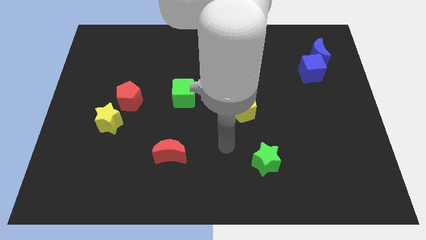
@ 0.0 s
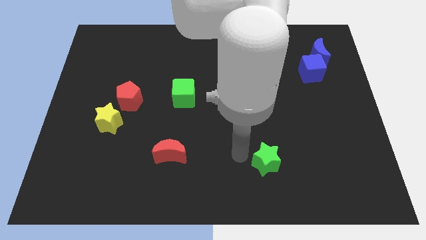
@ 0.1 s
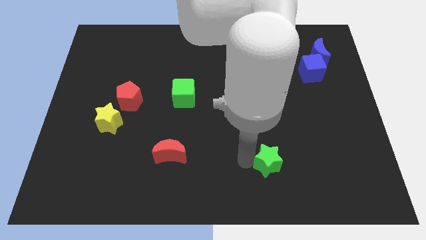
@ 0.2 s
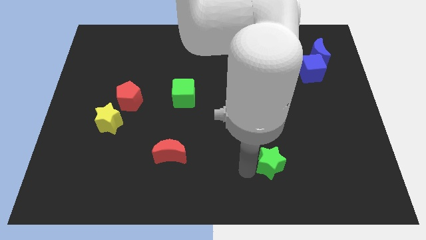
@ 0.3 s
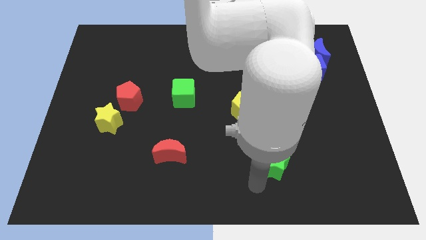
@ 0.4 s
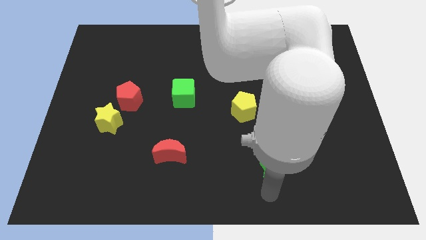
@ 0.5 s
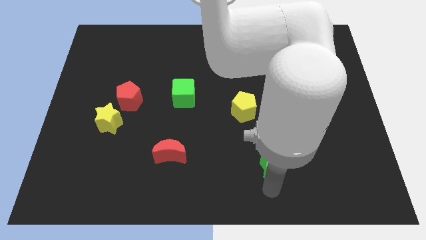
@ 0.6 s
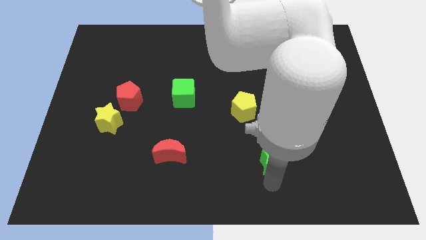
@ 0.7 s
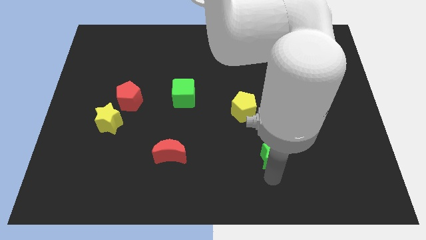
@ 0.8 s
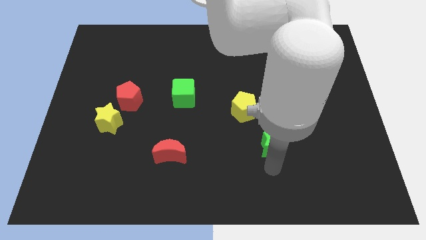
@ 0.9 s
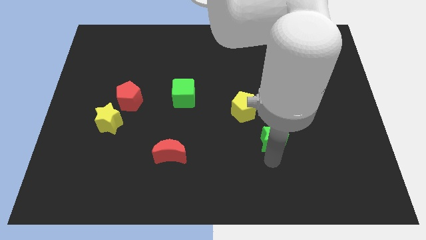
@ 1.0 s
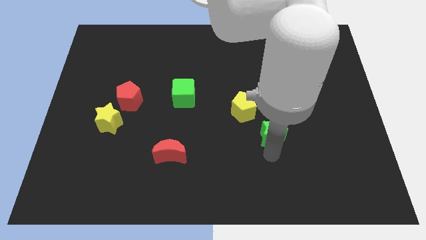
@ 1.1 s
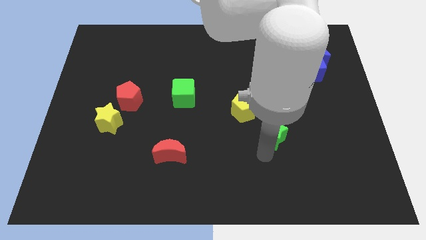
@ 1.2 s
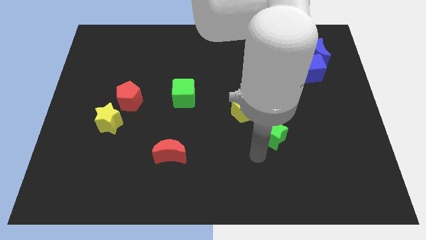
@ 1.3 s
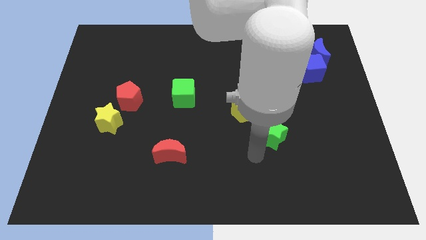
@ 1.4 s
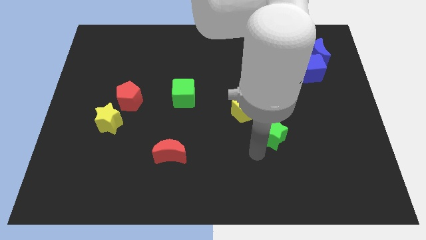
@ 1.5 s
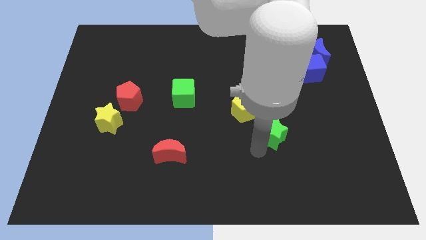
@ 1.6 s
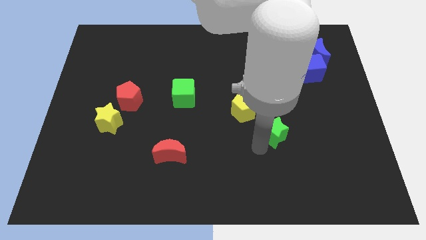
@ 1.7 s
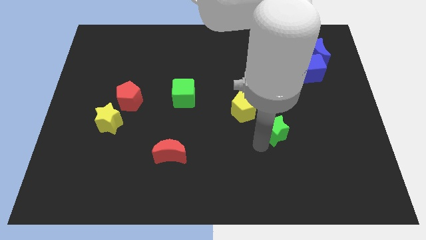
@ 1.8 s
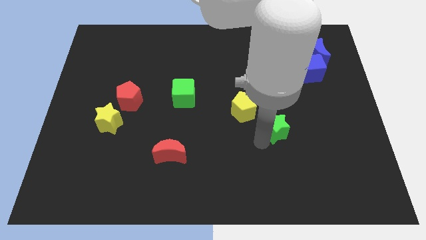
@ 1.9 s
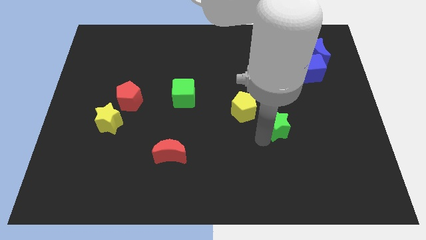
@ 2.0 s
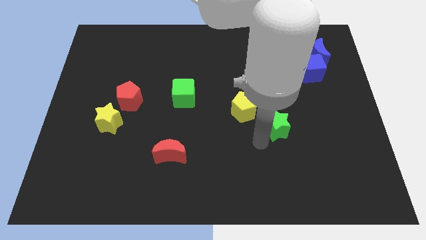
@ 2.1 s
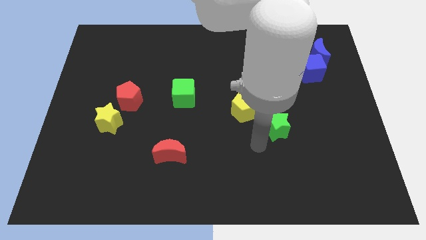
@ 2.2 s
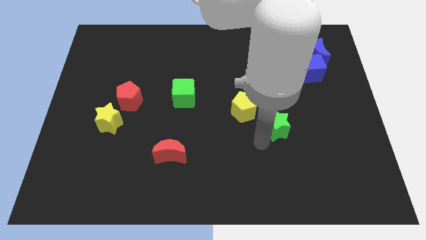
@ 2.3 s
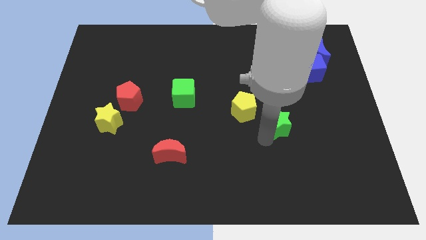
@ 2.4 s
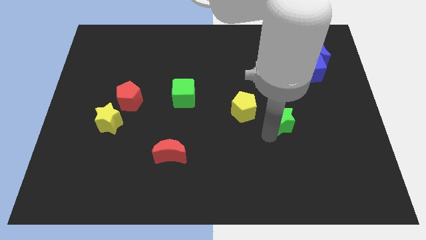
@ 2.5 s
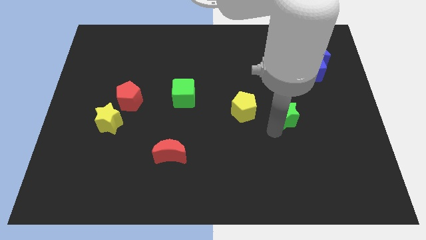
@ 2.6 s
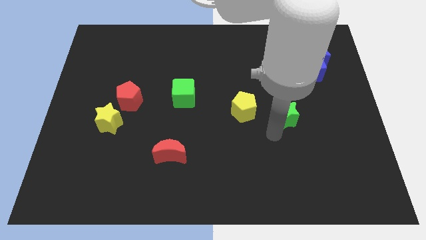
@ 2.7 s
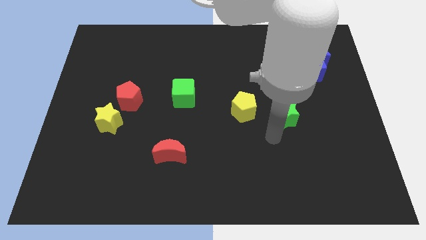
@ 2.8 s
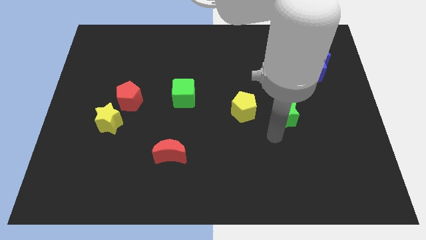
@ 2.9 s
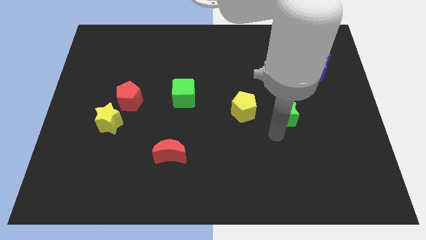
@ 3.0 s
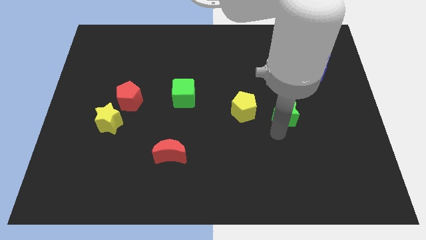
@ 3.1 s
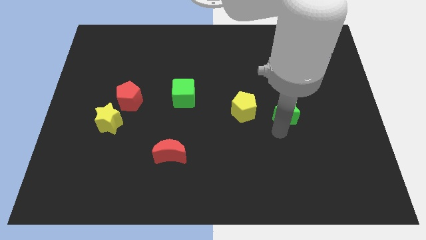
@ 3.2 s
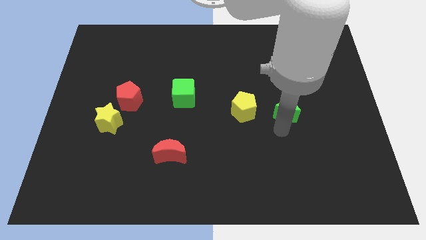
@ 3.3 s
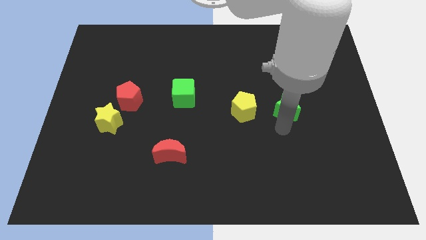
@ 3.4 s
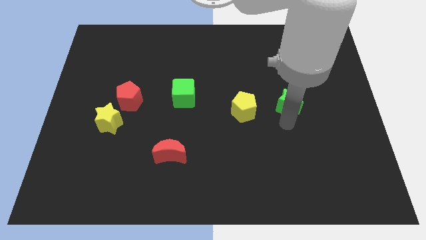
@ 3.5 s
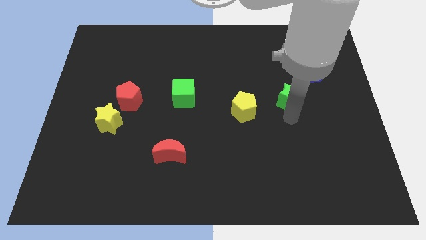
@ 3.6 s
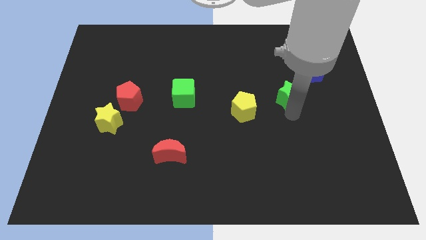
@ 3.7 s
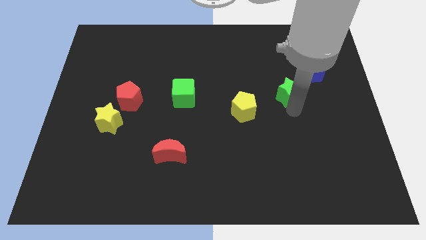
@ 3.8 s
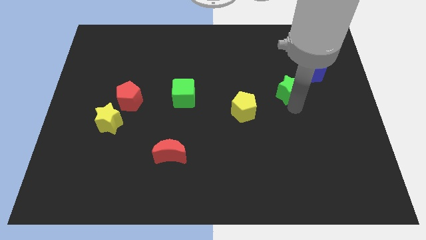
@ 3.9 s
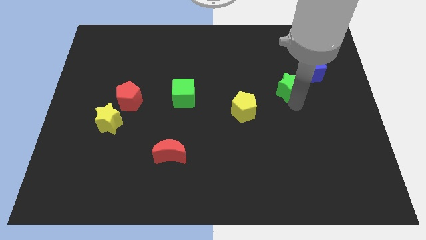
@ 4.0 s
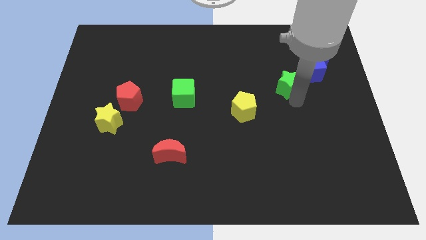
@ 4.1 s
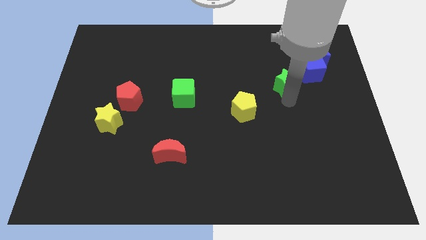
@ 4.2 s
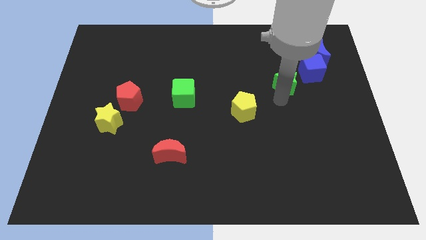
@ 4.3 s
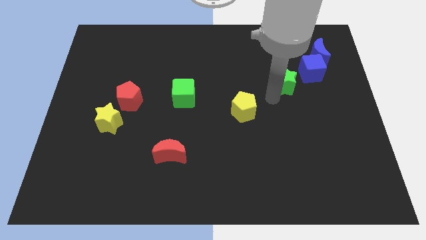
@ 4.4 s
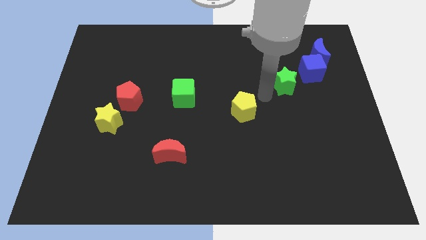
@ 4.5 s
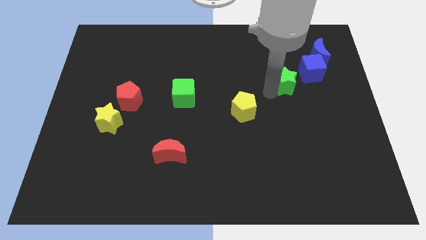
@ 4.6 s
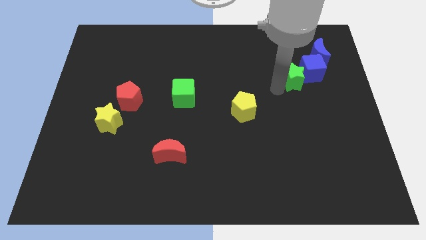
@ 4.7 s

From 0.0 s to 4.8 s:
move the green star close to the blue cube

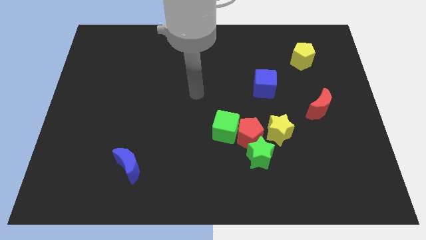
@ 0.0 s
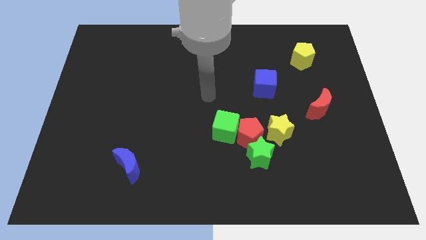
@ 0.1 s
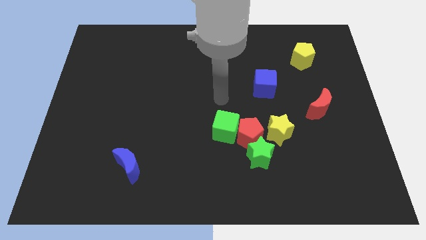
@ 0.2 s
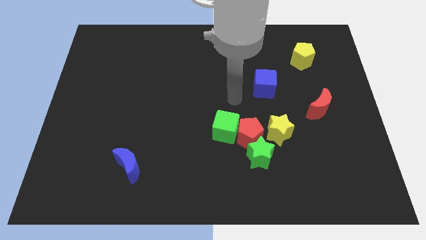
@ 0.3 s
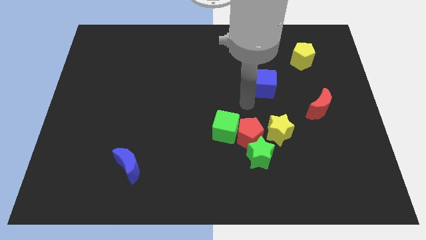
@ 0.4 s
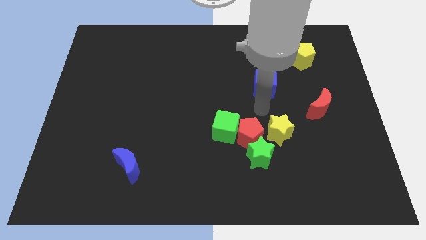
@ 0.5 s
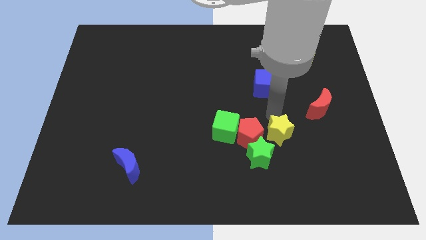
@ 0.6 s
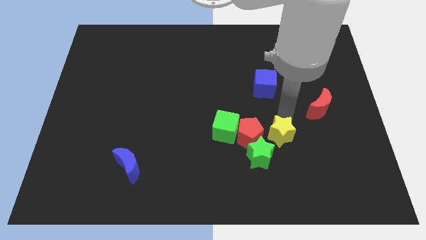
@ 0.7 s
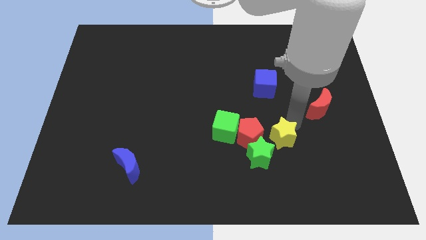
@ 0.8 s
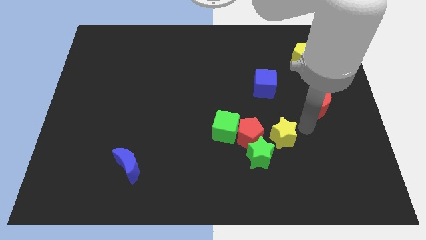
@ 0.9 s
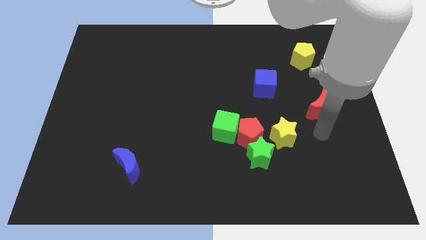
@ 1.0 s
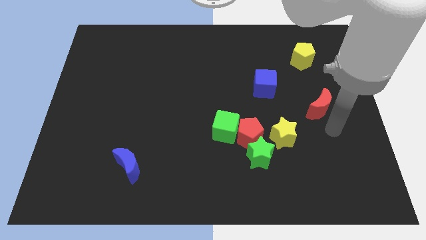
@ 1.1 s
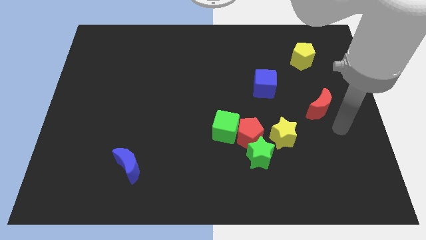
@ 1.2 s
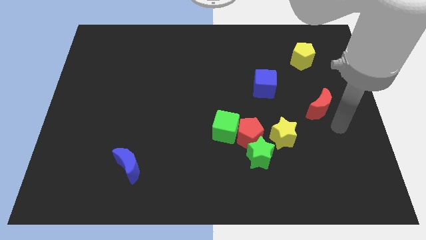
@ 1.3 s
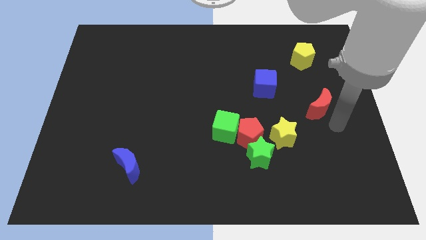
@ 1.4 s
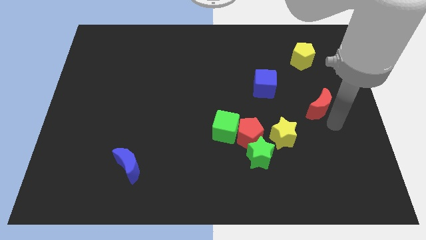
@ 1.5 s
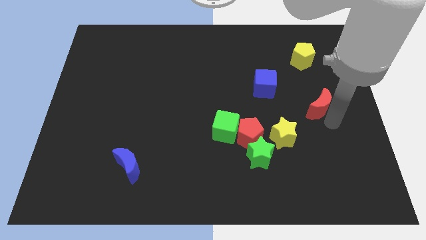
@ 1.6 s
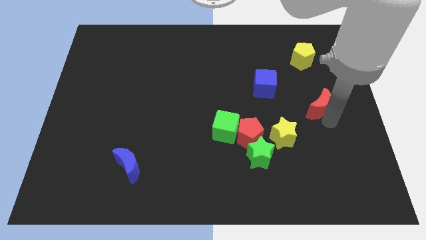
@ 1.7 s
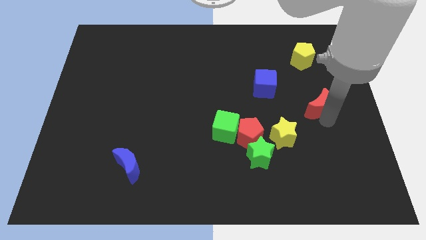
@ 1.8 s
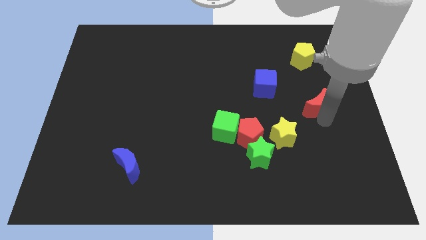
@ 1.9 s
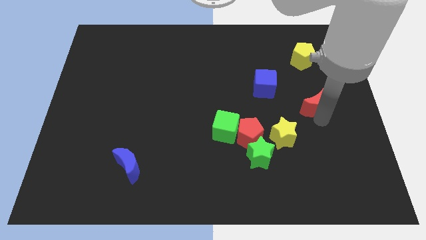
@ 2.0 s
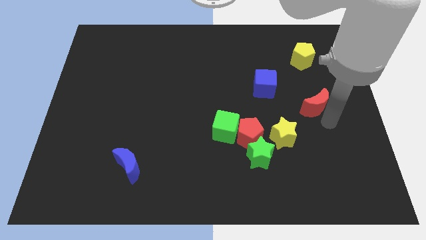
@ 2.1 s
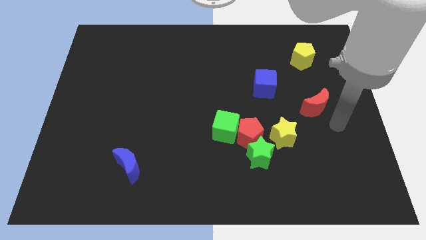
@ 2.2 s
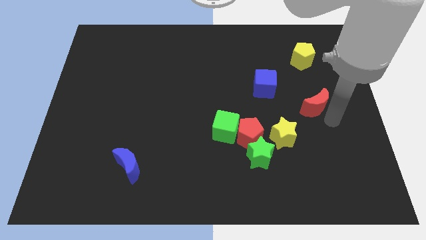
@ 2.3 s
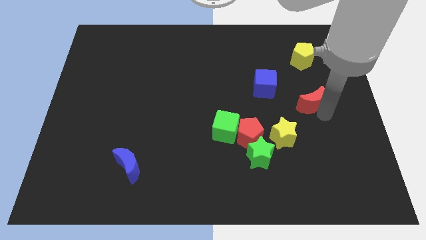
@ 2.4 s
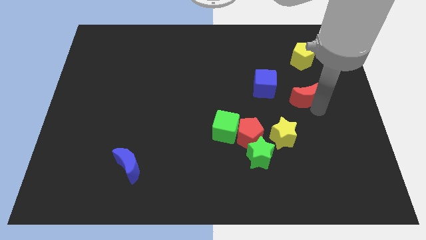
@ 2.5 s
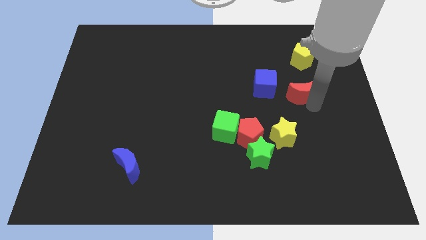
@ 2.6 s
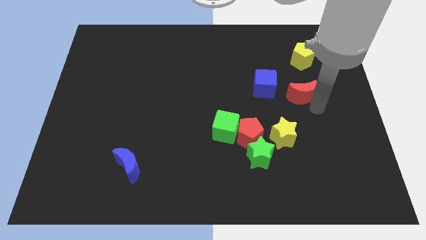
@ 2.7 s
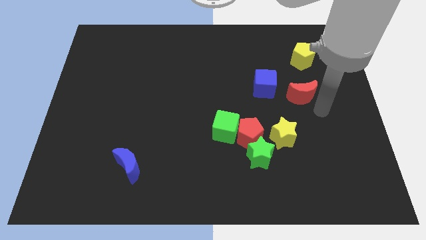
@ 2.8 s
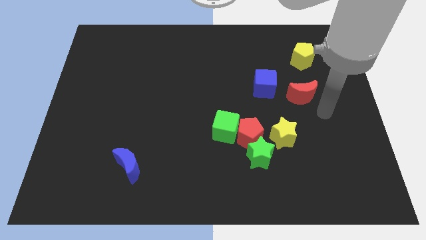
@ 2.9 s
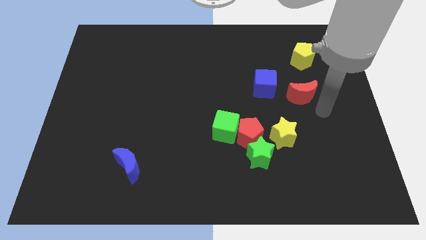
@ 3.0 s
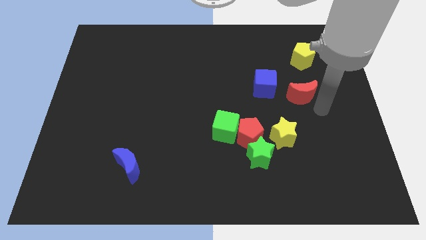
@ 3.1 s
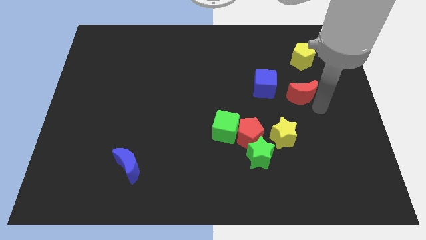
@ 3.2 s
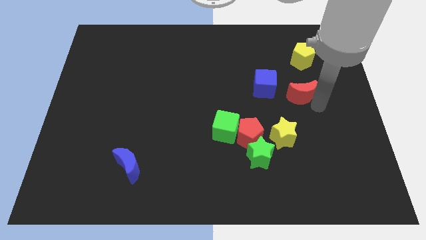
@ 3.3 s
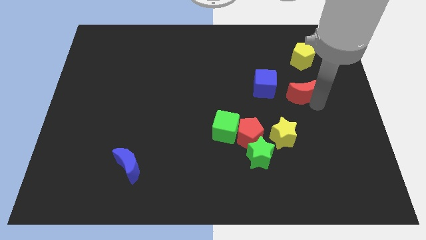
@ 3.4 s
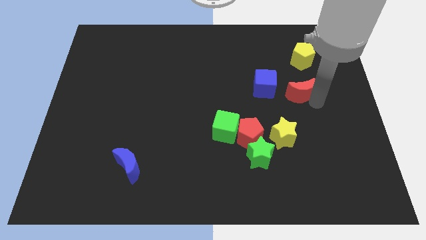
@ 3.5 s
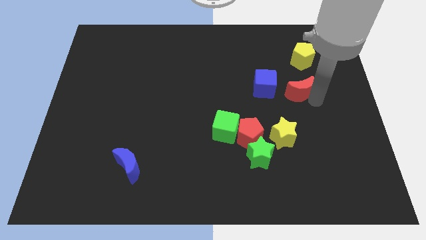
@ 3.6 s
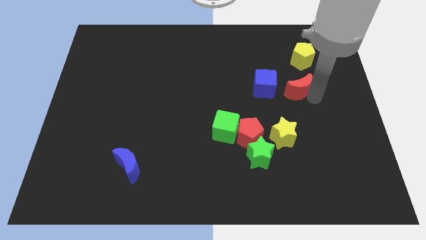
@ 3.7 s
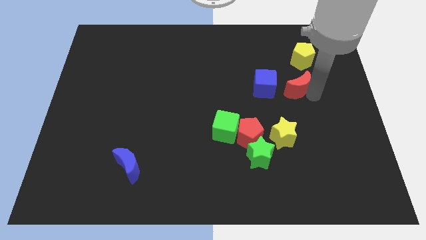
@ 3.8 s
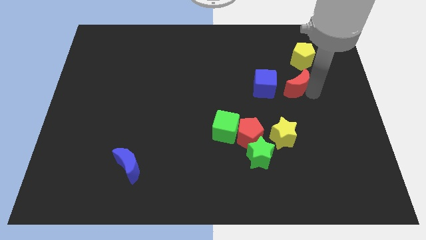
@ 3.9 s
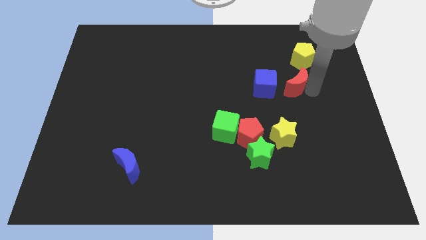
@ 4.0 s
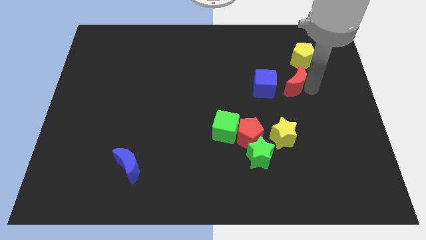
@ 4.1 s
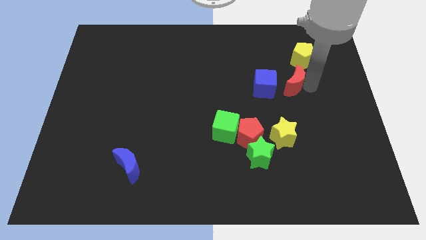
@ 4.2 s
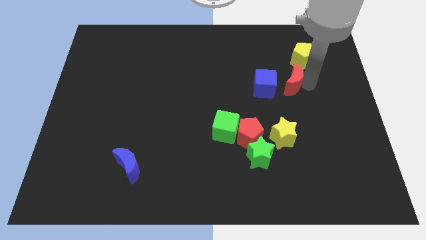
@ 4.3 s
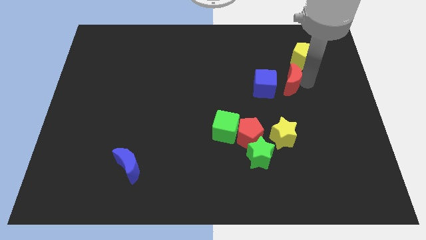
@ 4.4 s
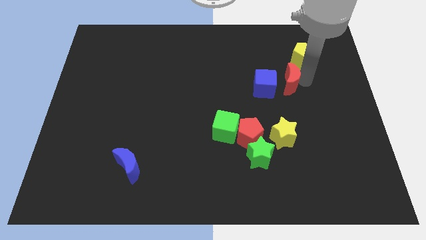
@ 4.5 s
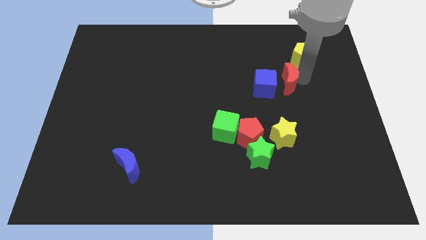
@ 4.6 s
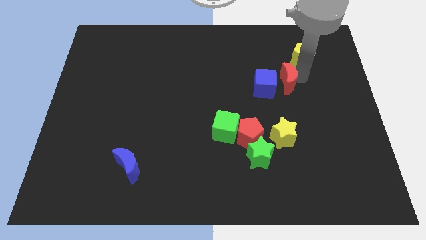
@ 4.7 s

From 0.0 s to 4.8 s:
move the red moon to the blue cube
